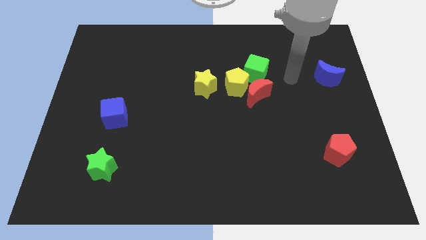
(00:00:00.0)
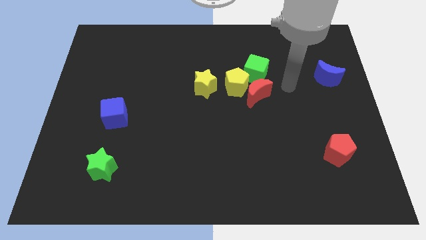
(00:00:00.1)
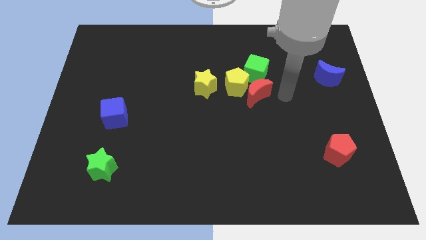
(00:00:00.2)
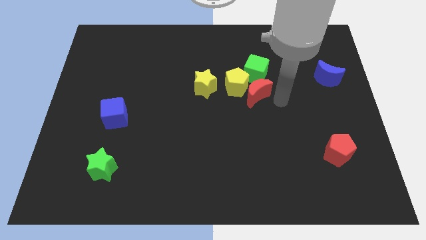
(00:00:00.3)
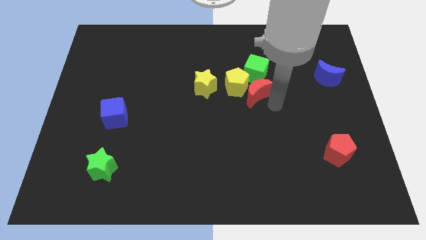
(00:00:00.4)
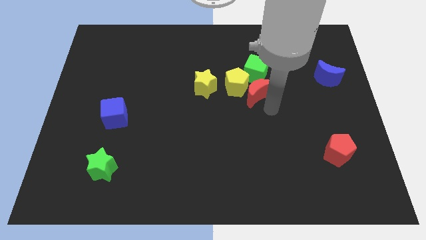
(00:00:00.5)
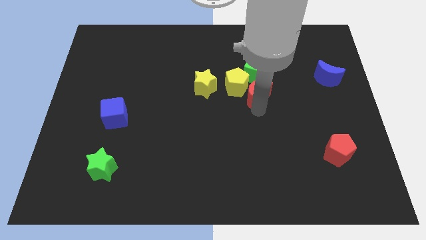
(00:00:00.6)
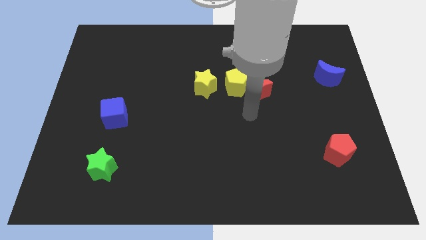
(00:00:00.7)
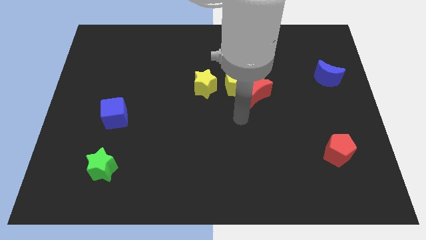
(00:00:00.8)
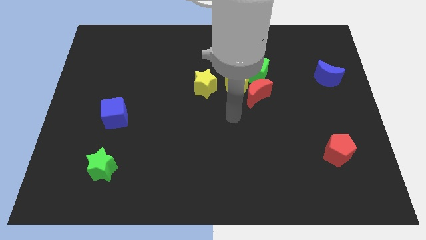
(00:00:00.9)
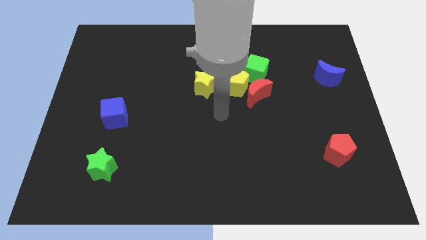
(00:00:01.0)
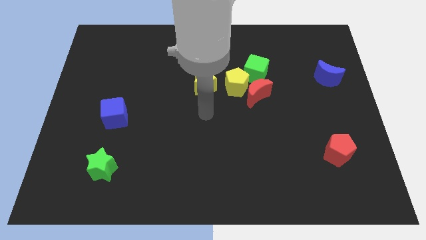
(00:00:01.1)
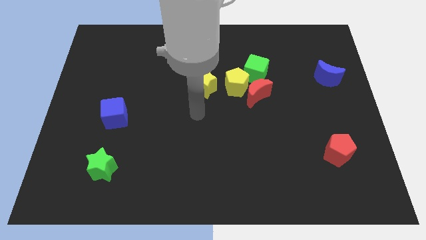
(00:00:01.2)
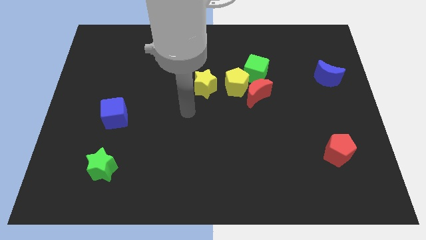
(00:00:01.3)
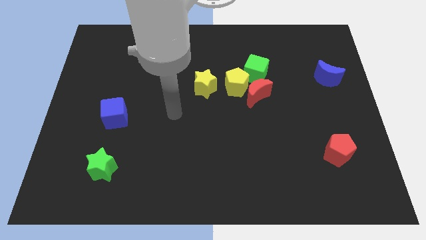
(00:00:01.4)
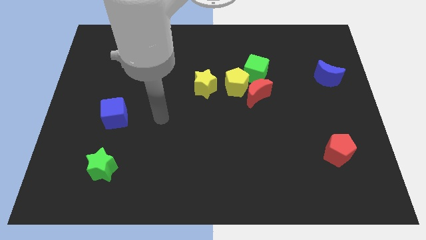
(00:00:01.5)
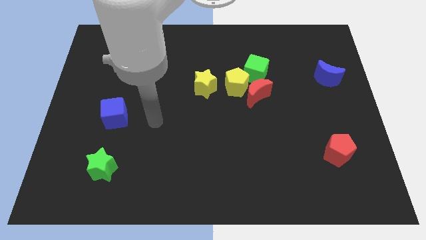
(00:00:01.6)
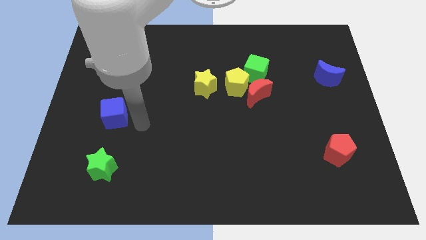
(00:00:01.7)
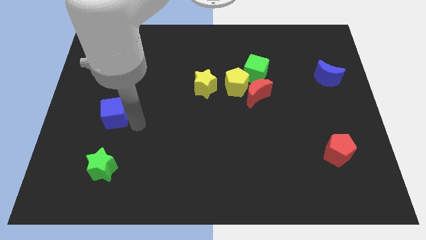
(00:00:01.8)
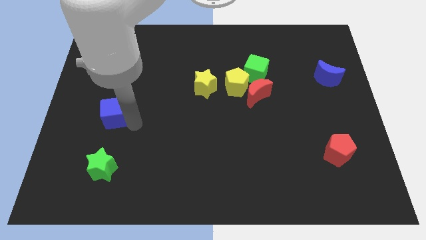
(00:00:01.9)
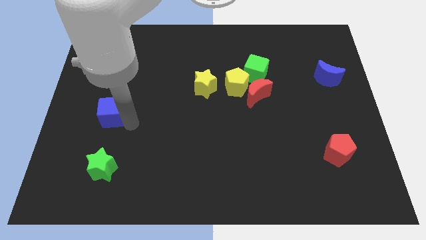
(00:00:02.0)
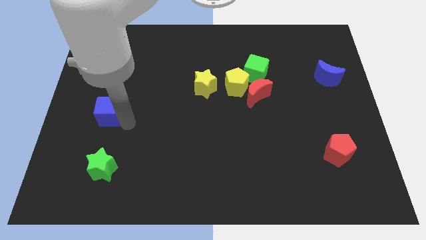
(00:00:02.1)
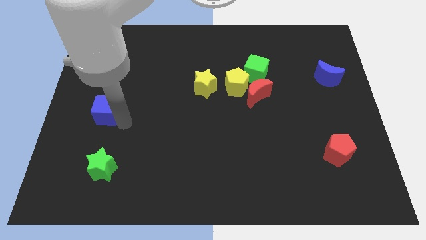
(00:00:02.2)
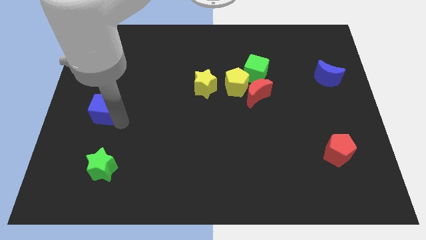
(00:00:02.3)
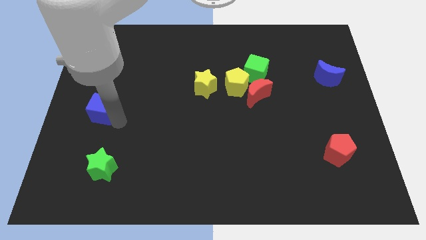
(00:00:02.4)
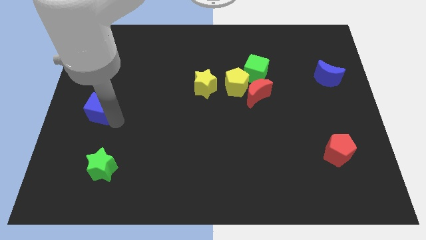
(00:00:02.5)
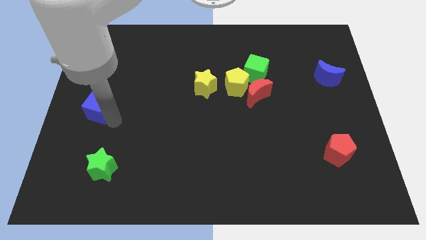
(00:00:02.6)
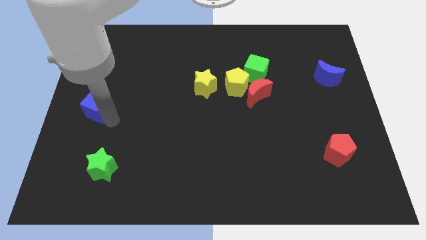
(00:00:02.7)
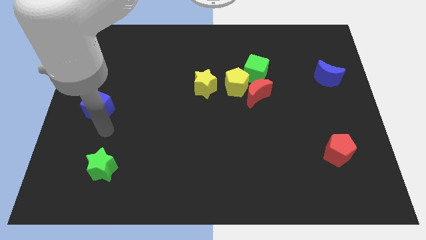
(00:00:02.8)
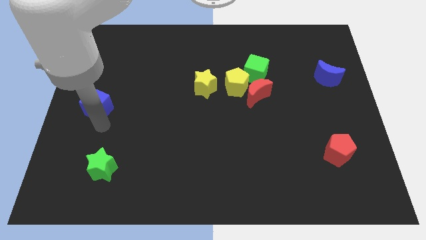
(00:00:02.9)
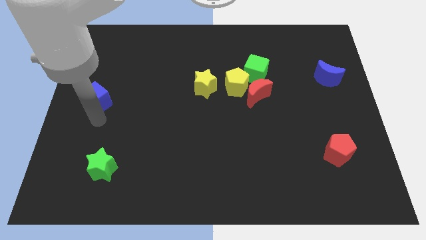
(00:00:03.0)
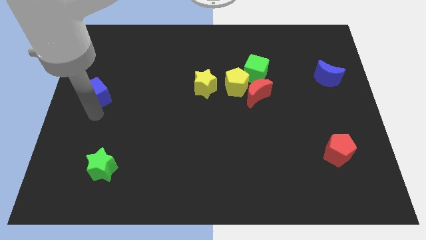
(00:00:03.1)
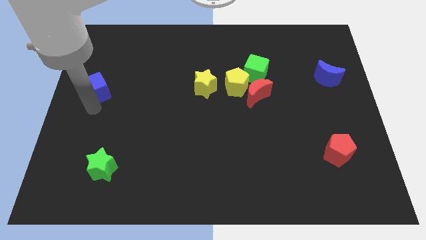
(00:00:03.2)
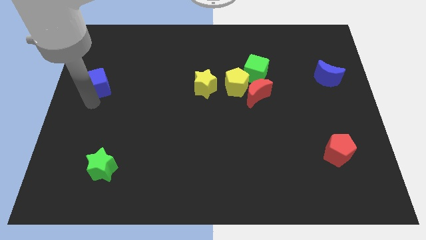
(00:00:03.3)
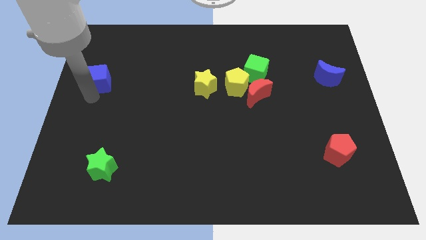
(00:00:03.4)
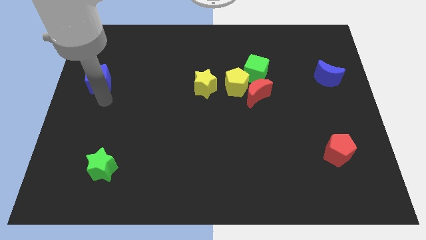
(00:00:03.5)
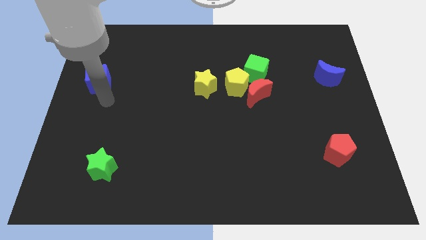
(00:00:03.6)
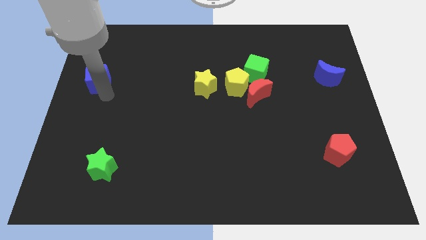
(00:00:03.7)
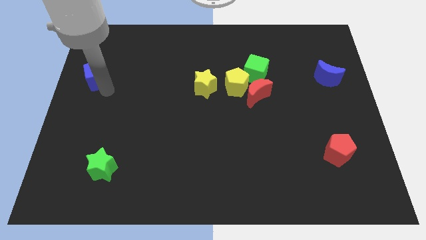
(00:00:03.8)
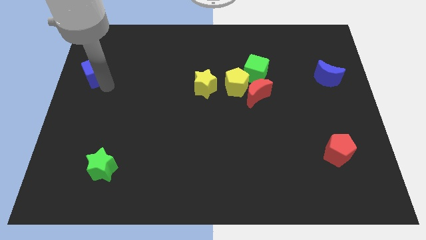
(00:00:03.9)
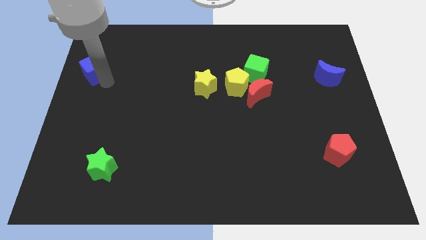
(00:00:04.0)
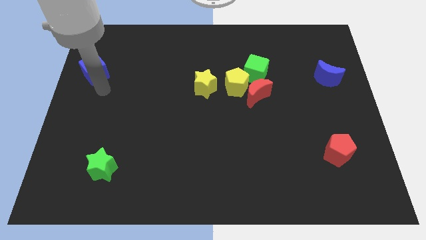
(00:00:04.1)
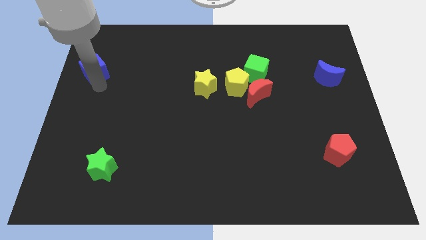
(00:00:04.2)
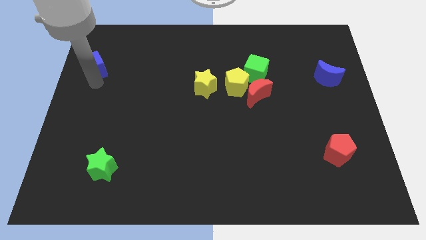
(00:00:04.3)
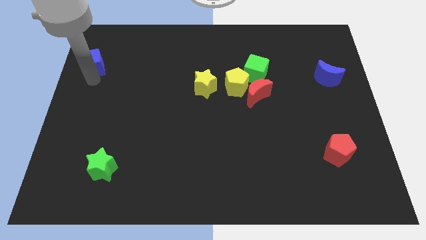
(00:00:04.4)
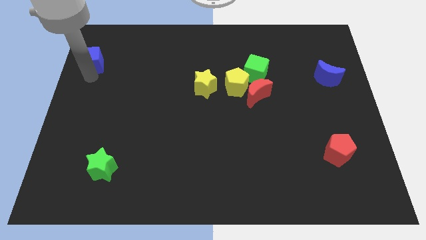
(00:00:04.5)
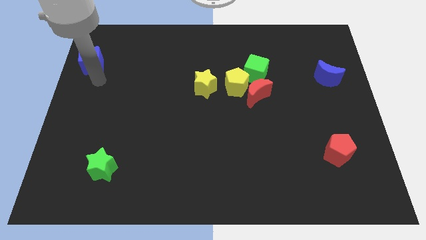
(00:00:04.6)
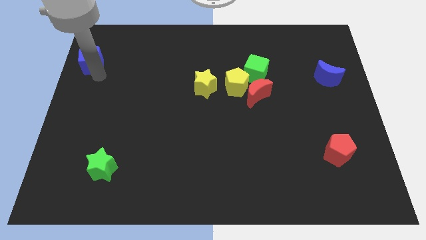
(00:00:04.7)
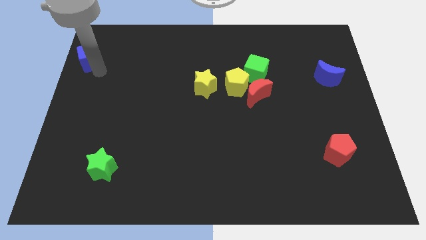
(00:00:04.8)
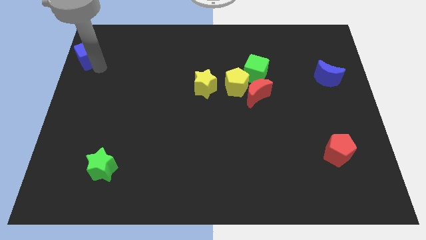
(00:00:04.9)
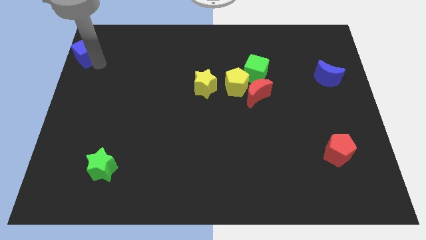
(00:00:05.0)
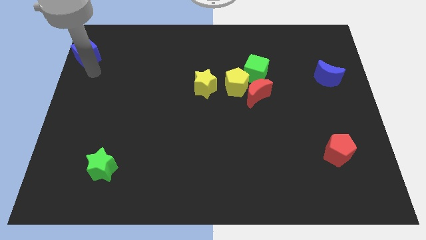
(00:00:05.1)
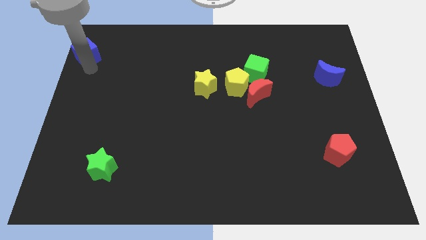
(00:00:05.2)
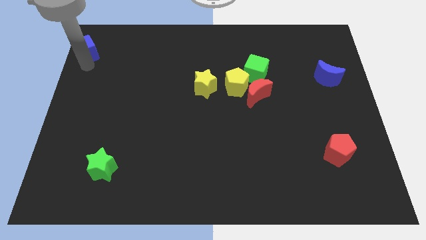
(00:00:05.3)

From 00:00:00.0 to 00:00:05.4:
slide the blue cube to the top left

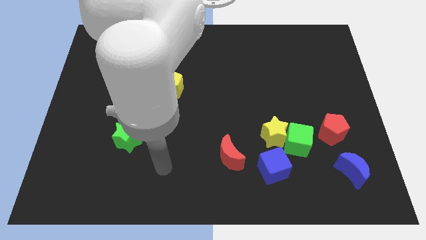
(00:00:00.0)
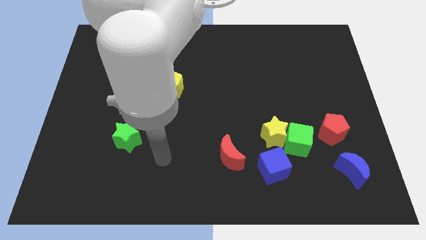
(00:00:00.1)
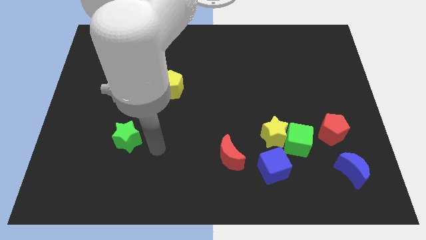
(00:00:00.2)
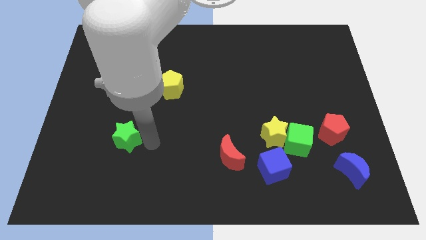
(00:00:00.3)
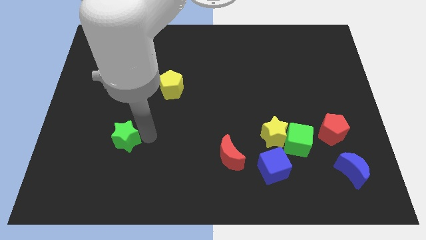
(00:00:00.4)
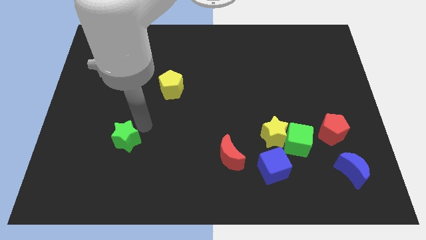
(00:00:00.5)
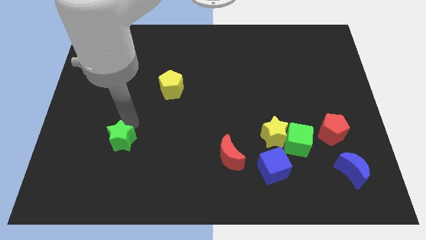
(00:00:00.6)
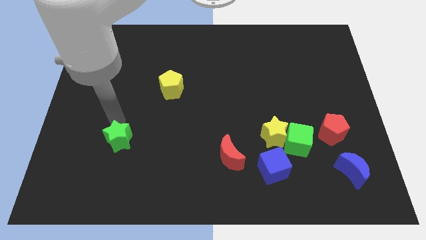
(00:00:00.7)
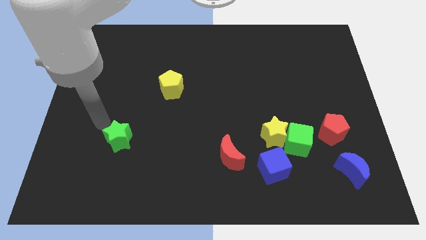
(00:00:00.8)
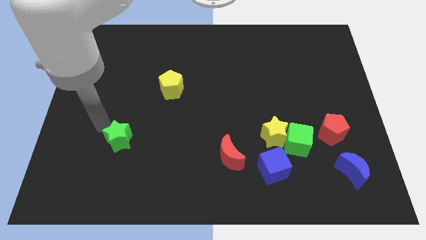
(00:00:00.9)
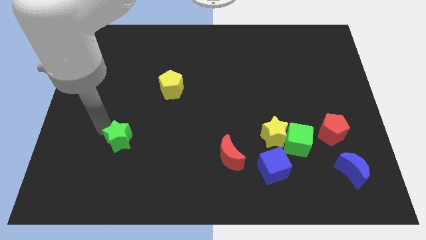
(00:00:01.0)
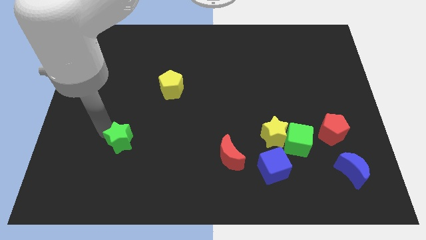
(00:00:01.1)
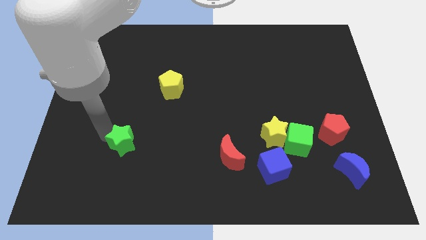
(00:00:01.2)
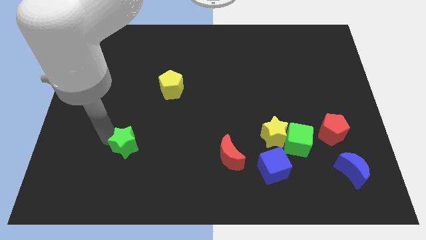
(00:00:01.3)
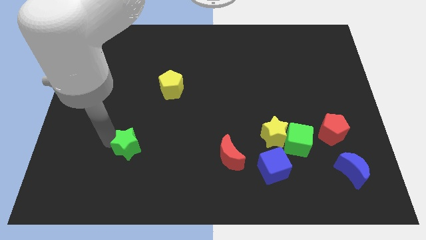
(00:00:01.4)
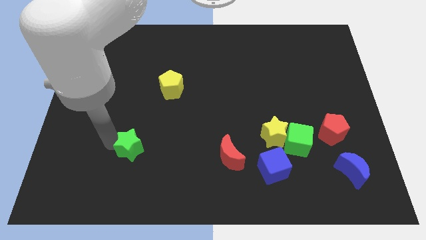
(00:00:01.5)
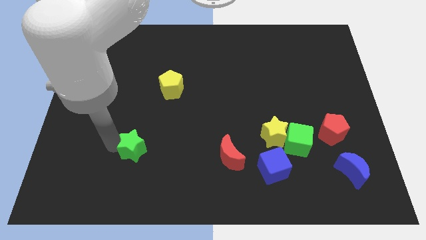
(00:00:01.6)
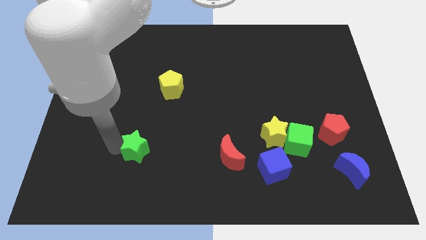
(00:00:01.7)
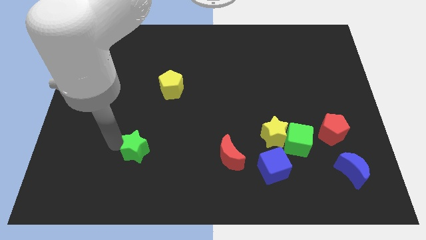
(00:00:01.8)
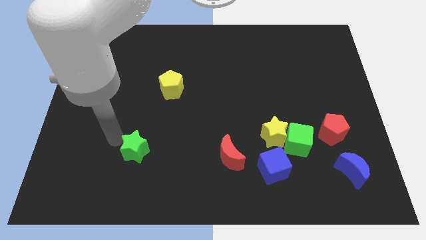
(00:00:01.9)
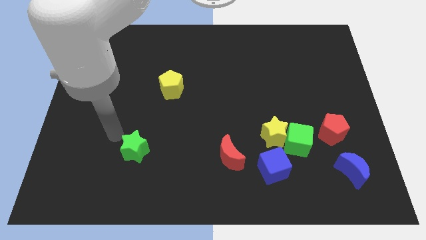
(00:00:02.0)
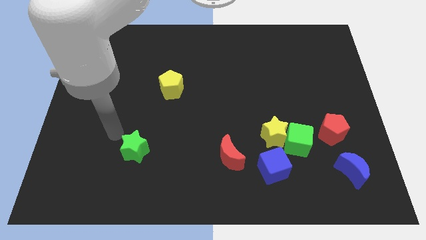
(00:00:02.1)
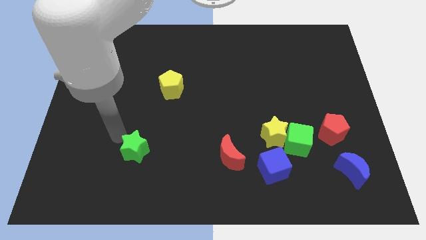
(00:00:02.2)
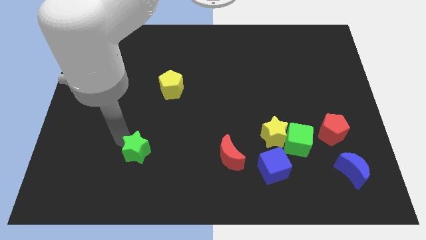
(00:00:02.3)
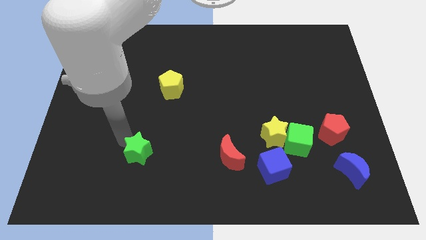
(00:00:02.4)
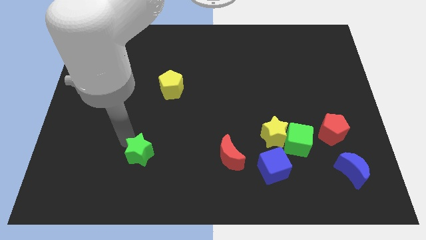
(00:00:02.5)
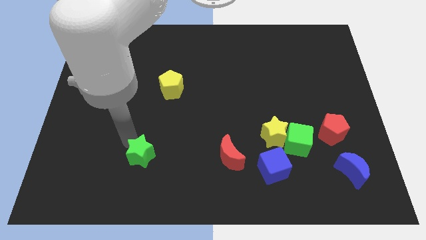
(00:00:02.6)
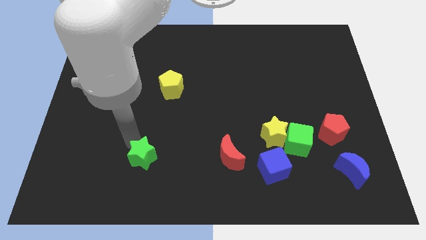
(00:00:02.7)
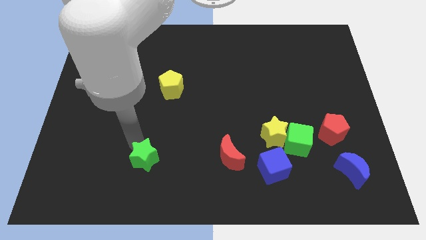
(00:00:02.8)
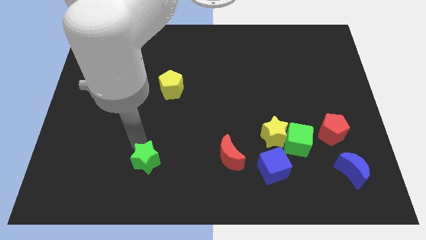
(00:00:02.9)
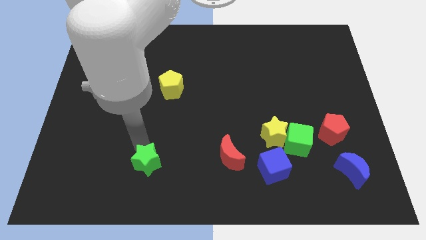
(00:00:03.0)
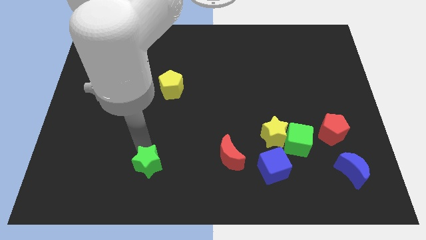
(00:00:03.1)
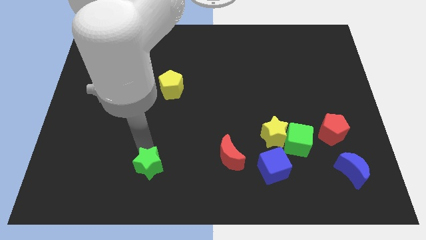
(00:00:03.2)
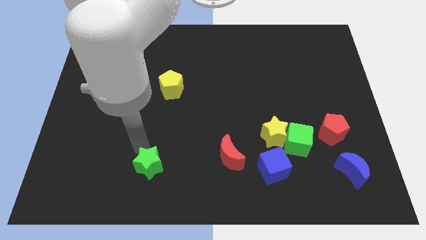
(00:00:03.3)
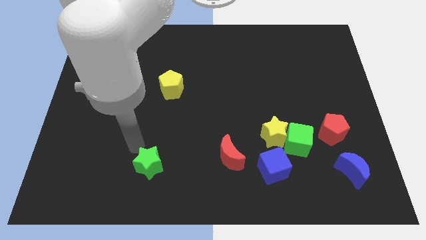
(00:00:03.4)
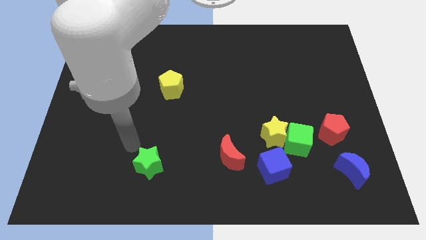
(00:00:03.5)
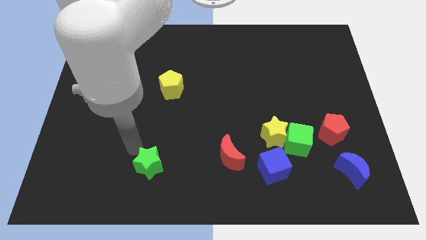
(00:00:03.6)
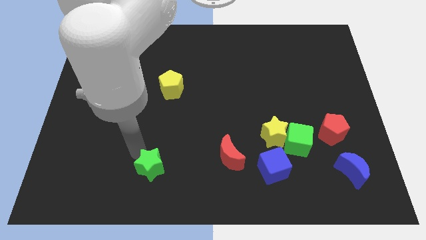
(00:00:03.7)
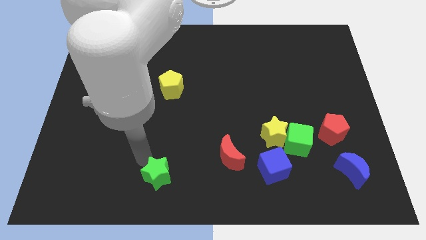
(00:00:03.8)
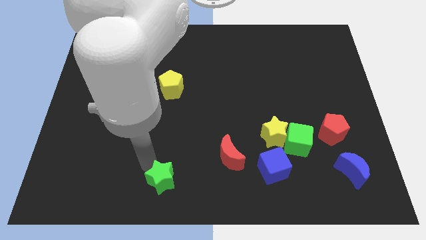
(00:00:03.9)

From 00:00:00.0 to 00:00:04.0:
put the green star to the bottom side
